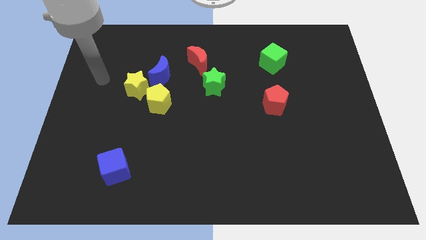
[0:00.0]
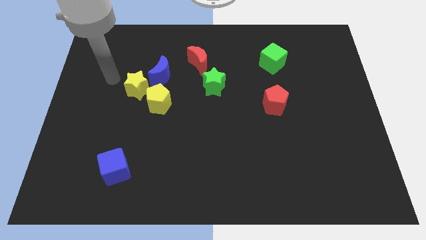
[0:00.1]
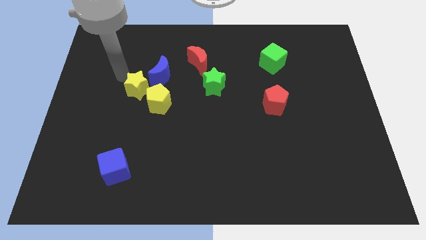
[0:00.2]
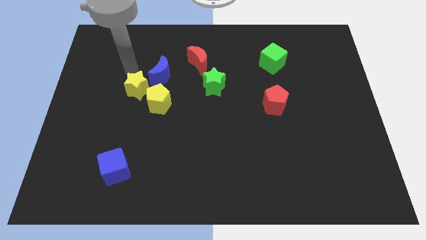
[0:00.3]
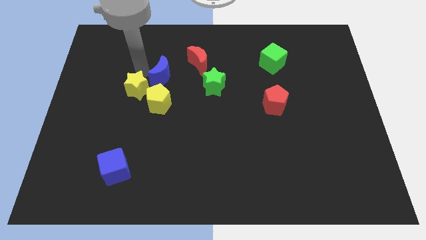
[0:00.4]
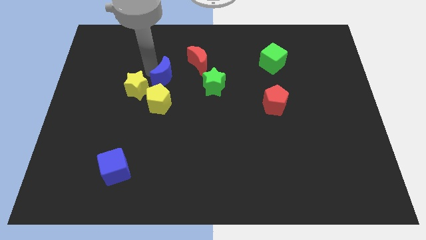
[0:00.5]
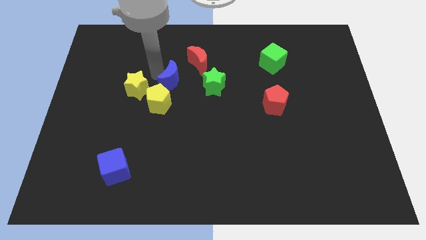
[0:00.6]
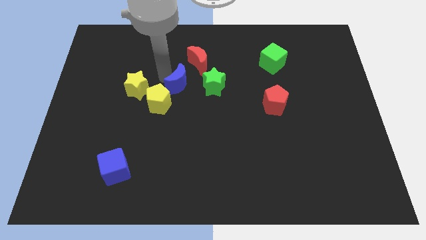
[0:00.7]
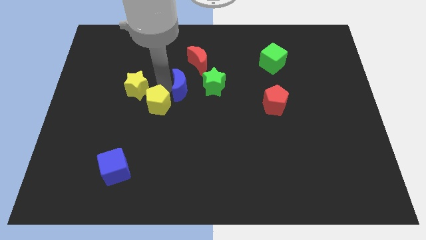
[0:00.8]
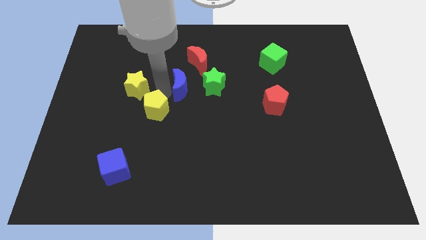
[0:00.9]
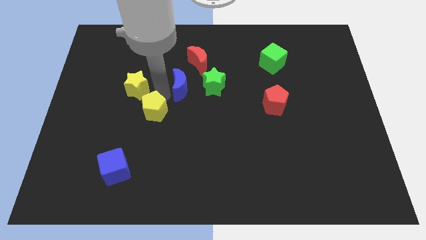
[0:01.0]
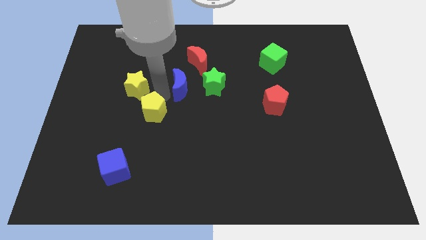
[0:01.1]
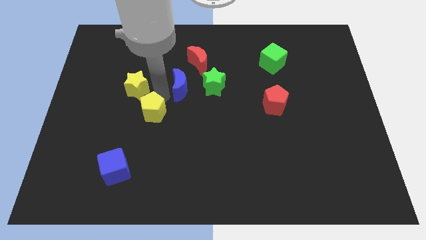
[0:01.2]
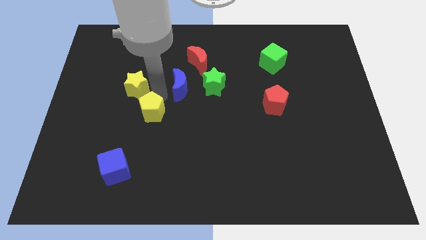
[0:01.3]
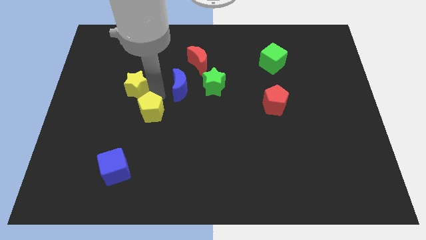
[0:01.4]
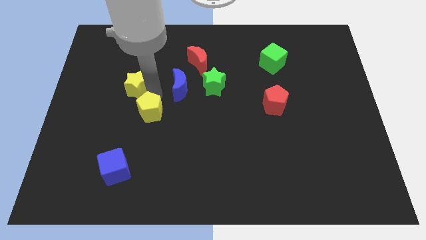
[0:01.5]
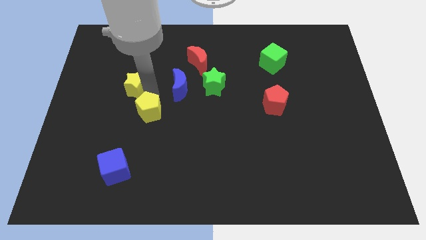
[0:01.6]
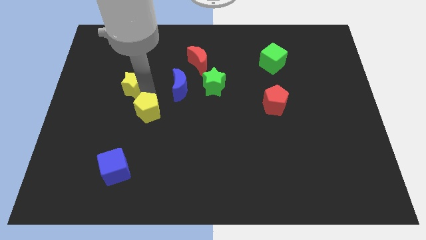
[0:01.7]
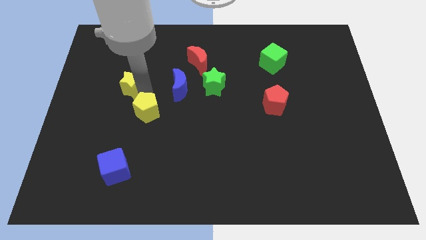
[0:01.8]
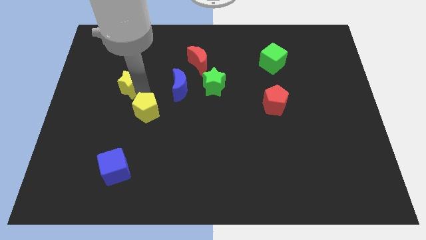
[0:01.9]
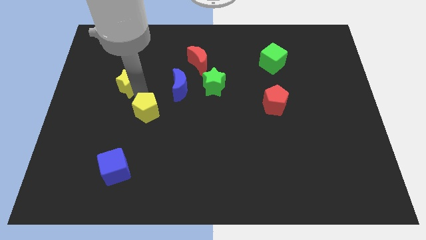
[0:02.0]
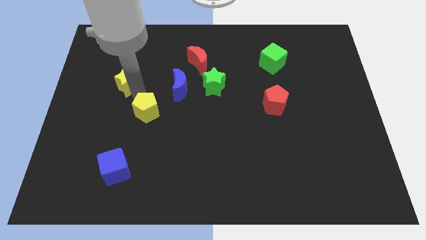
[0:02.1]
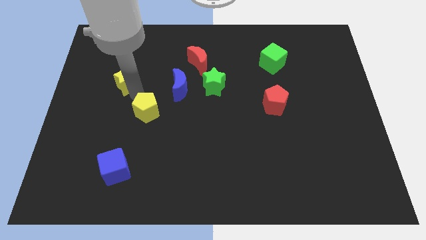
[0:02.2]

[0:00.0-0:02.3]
move the yellow star away from the yellow pentagon and blue moon

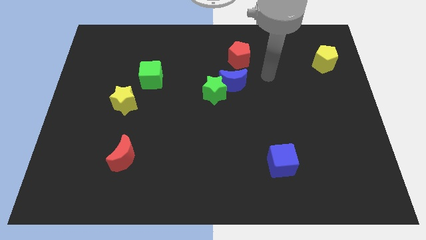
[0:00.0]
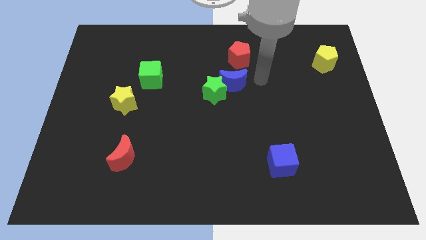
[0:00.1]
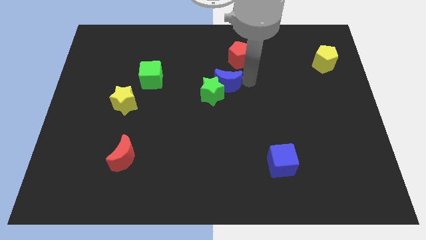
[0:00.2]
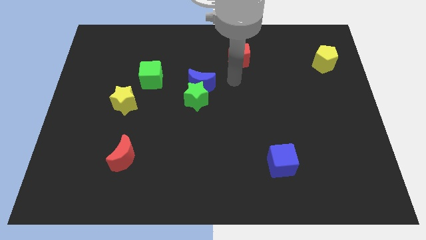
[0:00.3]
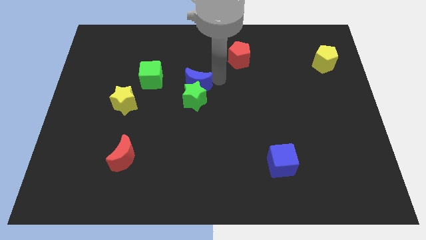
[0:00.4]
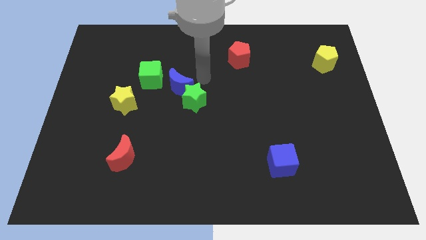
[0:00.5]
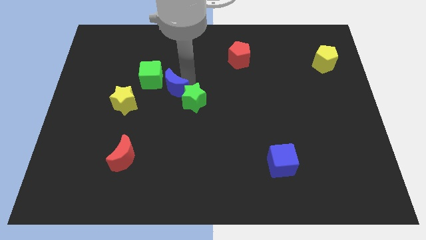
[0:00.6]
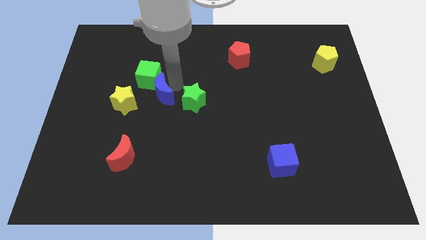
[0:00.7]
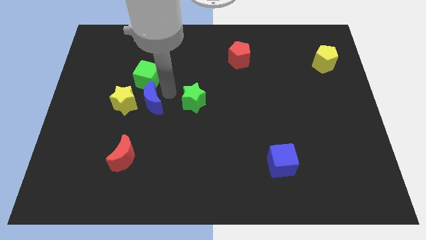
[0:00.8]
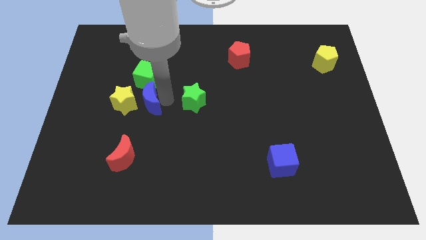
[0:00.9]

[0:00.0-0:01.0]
pull the green star apart from the blue moon

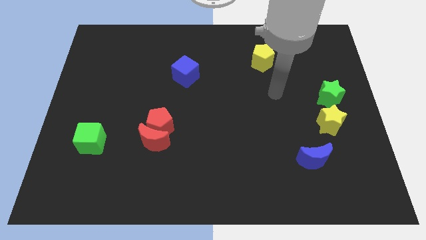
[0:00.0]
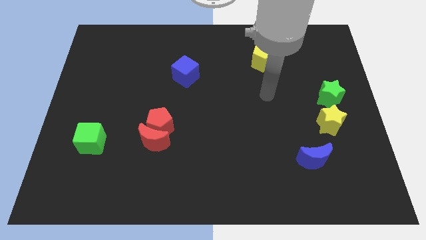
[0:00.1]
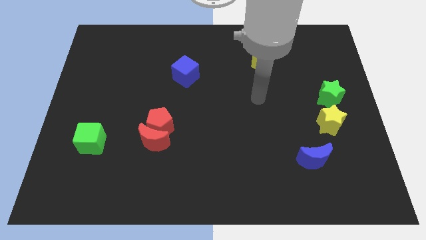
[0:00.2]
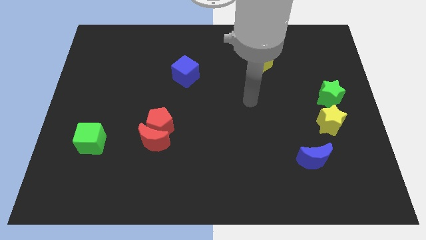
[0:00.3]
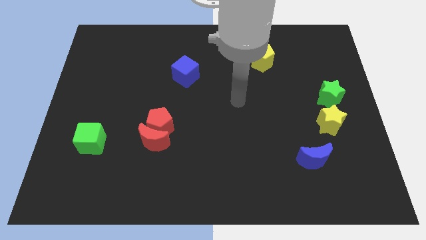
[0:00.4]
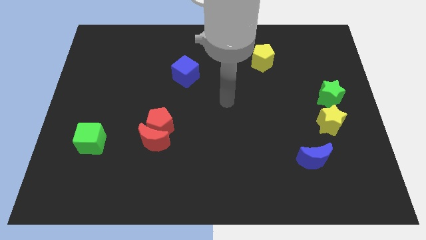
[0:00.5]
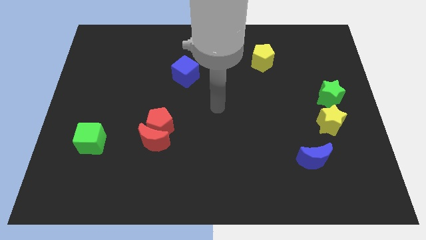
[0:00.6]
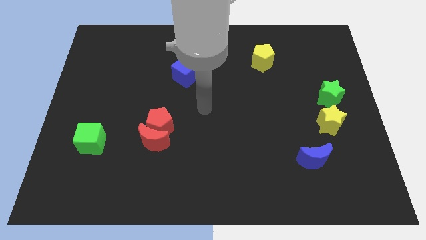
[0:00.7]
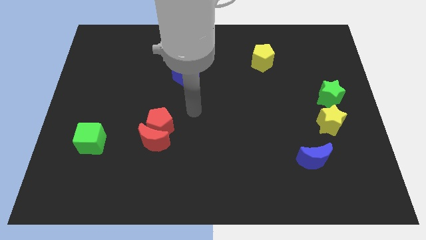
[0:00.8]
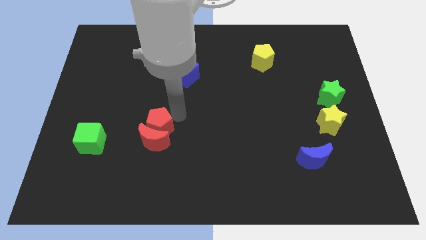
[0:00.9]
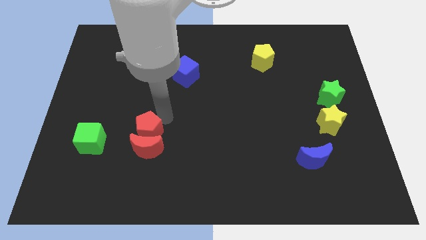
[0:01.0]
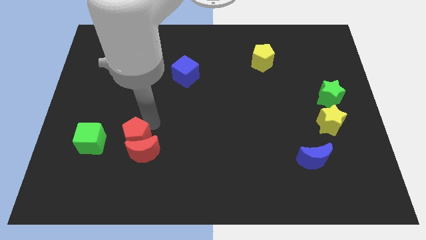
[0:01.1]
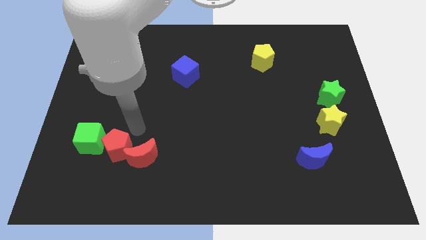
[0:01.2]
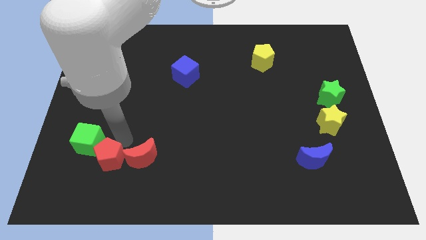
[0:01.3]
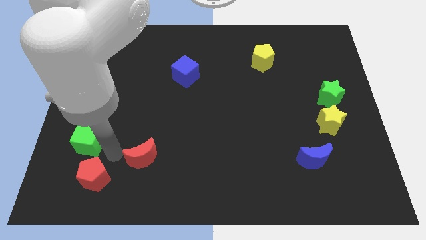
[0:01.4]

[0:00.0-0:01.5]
pull the red moon apart from the red pentagon

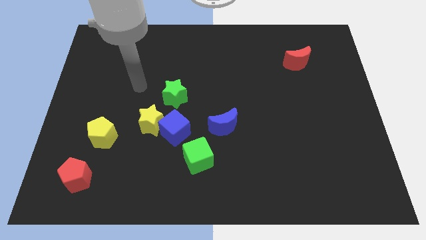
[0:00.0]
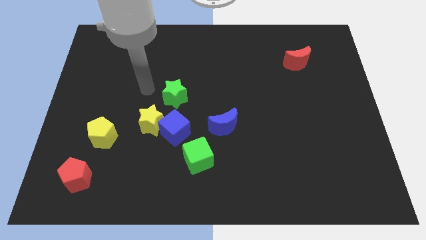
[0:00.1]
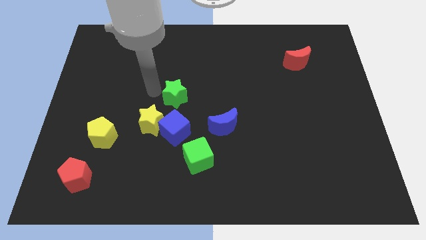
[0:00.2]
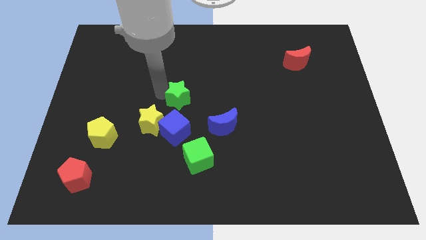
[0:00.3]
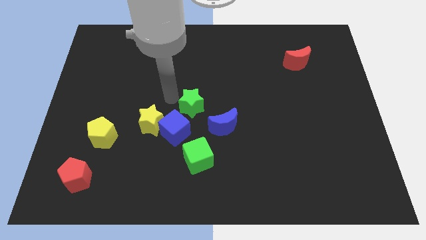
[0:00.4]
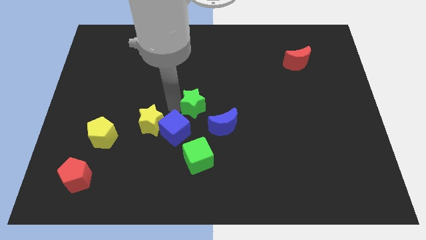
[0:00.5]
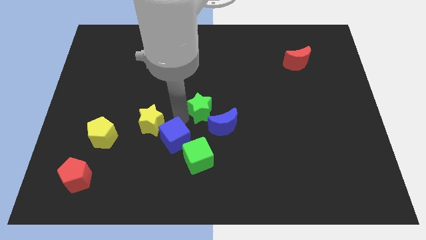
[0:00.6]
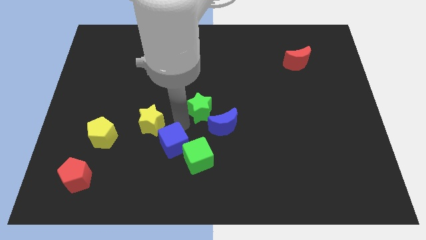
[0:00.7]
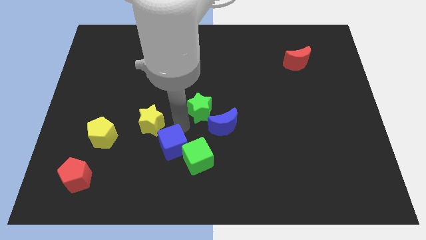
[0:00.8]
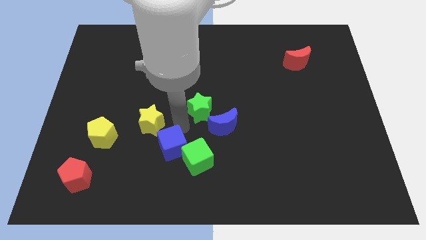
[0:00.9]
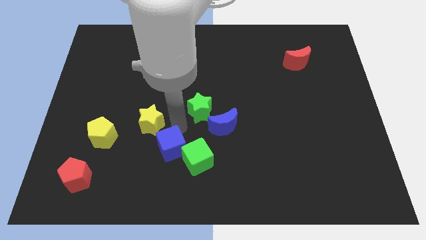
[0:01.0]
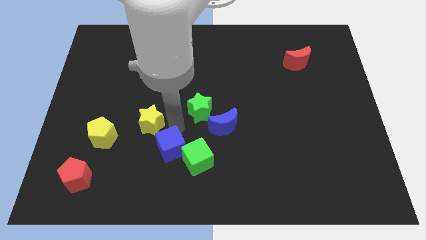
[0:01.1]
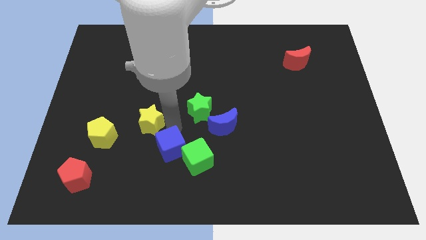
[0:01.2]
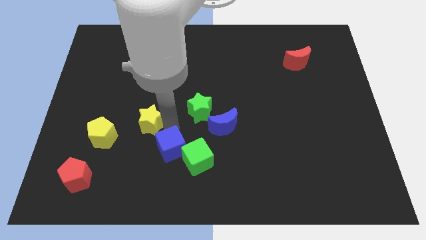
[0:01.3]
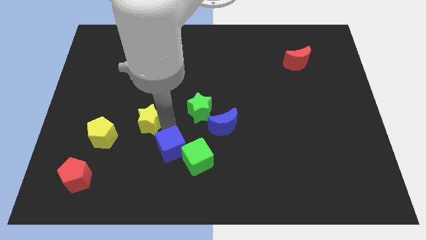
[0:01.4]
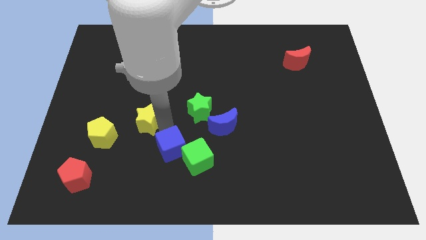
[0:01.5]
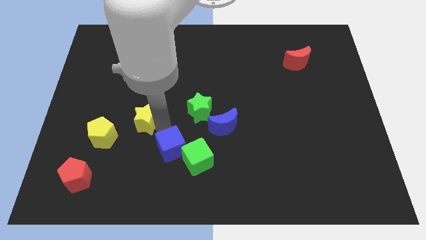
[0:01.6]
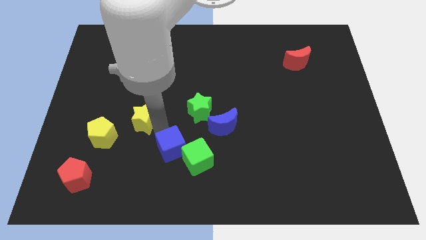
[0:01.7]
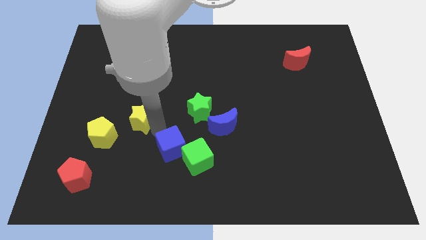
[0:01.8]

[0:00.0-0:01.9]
separate the yellow star from the blue cube and green star

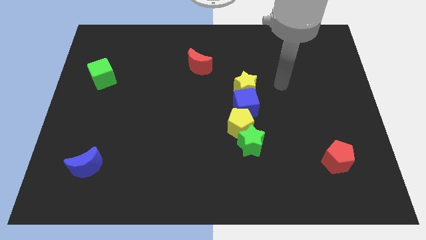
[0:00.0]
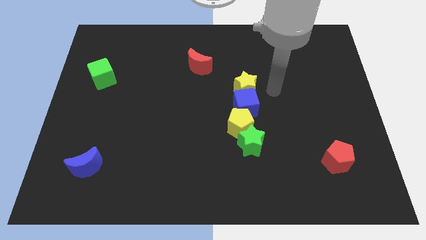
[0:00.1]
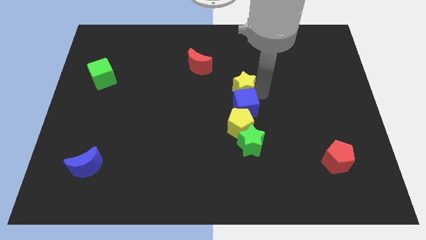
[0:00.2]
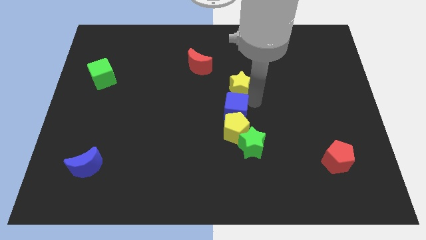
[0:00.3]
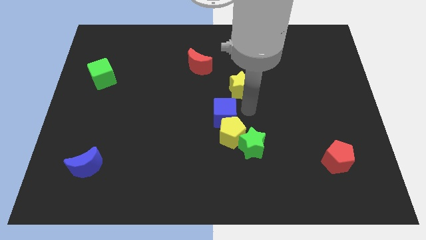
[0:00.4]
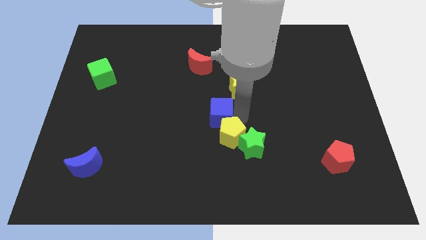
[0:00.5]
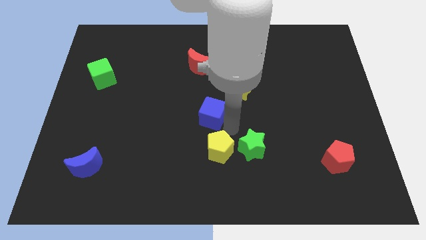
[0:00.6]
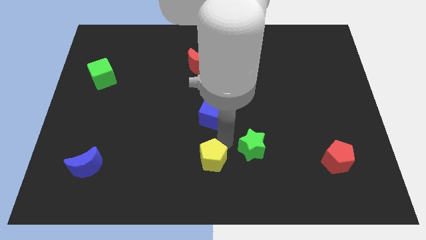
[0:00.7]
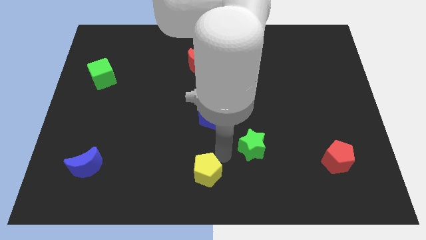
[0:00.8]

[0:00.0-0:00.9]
move the green star away from the yellow pentagon

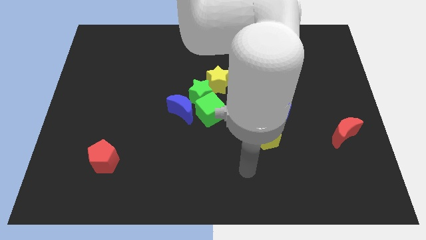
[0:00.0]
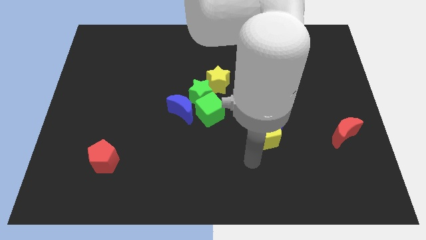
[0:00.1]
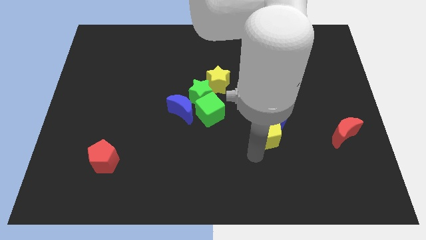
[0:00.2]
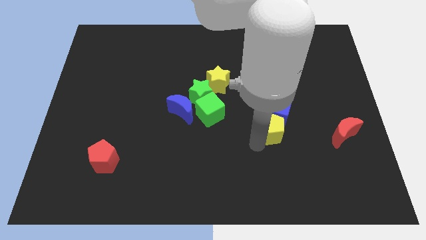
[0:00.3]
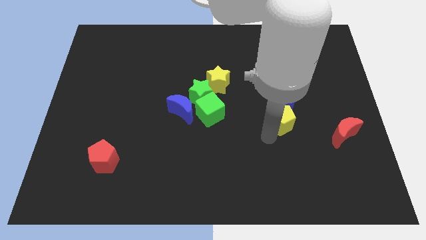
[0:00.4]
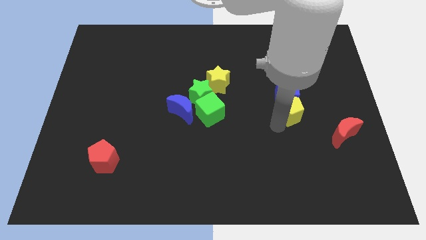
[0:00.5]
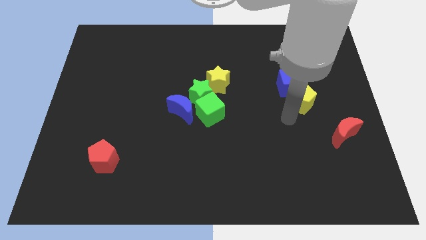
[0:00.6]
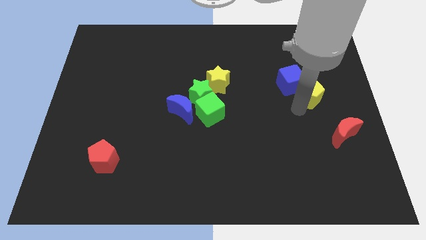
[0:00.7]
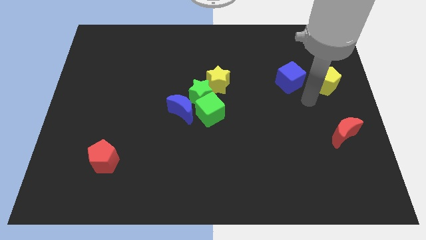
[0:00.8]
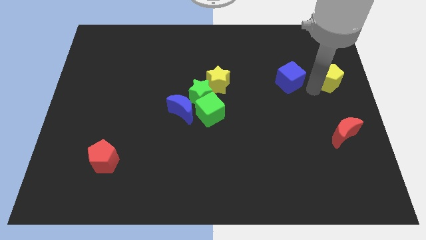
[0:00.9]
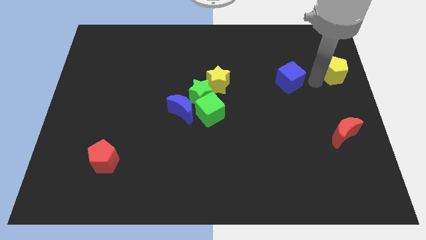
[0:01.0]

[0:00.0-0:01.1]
move the blue cube away from the yellow pentagon

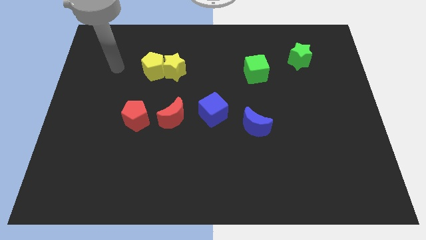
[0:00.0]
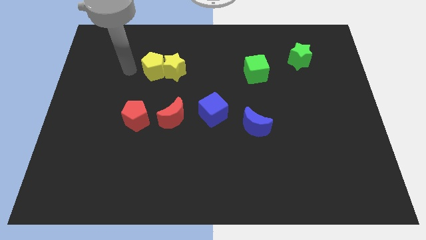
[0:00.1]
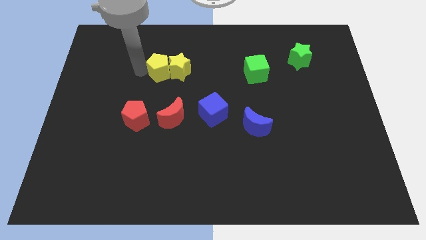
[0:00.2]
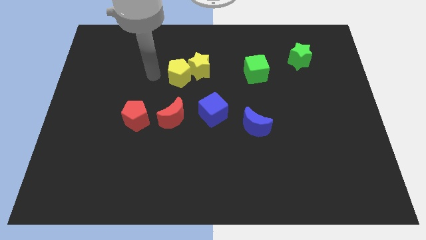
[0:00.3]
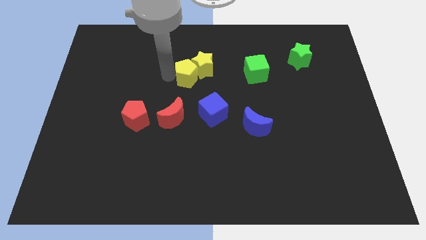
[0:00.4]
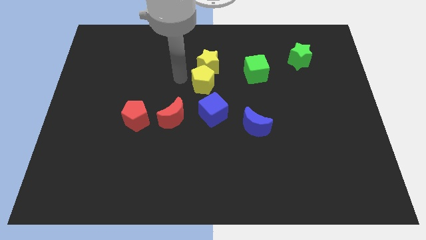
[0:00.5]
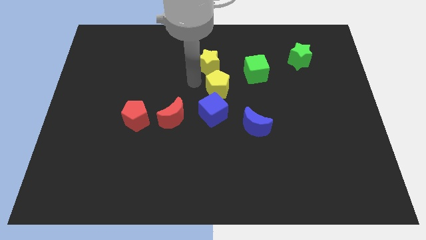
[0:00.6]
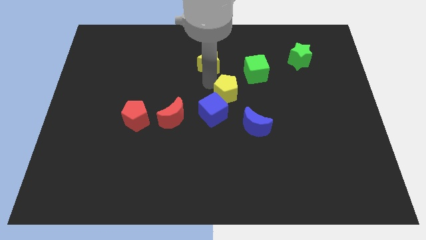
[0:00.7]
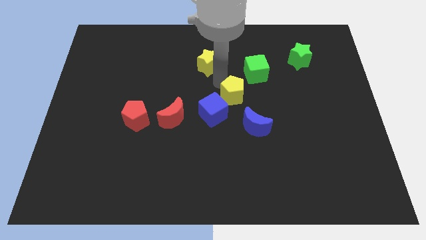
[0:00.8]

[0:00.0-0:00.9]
pull the yellow star apart from the yellow pentagon
